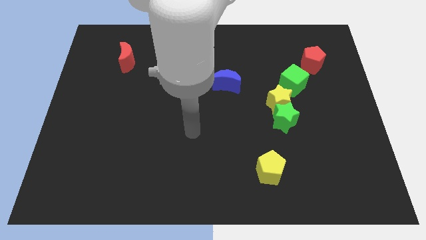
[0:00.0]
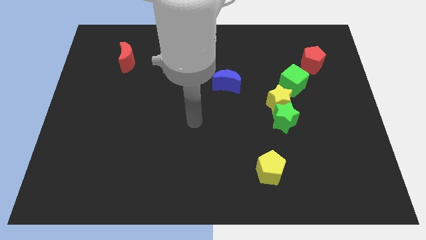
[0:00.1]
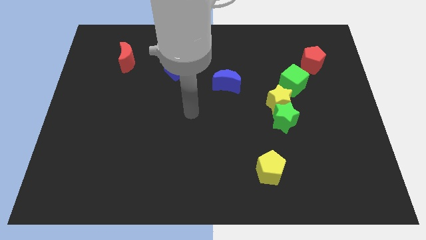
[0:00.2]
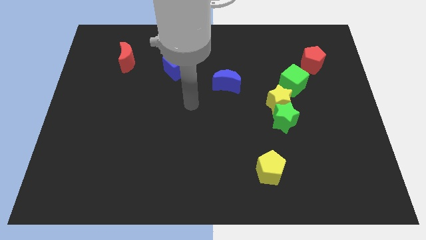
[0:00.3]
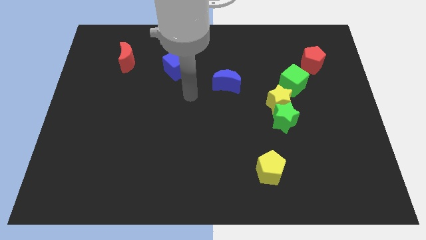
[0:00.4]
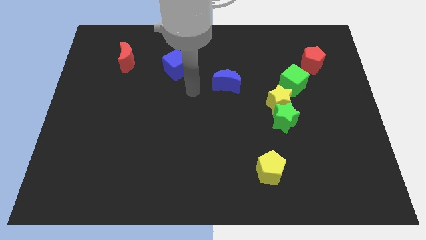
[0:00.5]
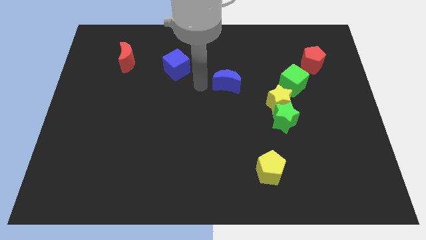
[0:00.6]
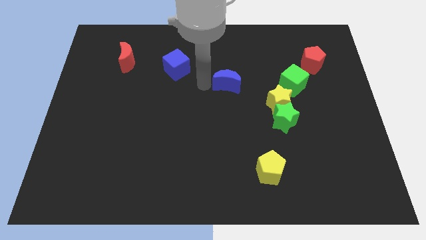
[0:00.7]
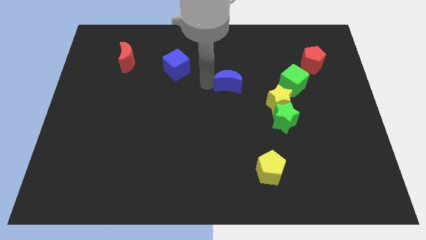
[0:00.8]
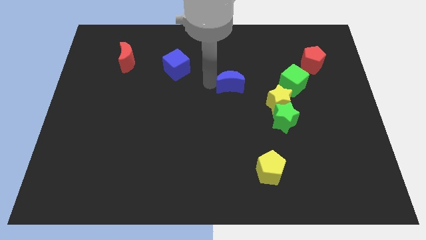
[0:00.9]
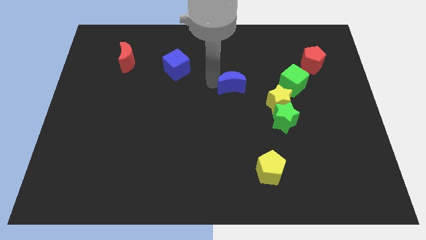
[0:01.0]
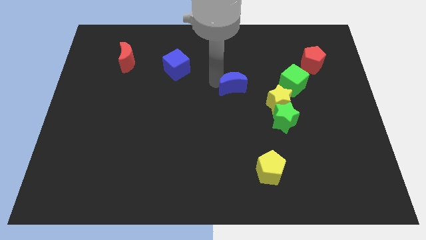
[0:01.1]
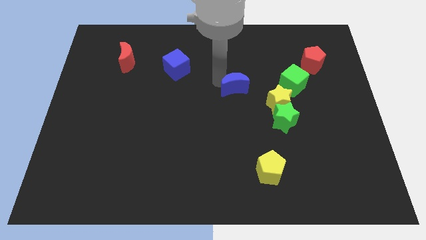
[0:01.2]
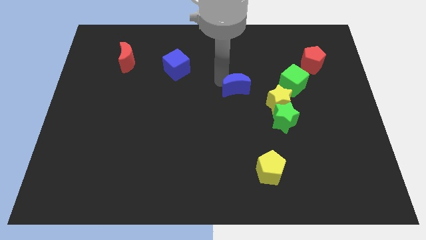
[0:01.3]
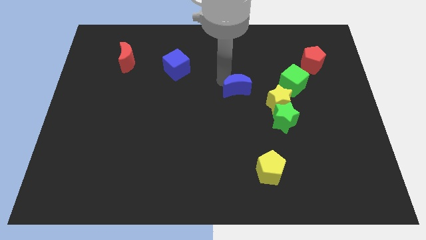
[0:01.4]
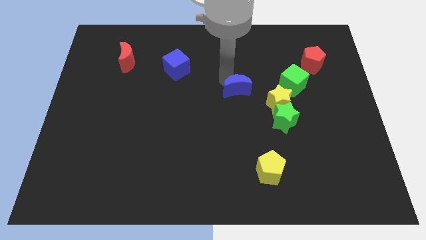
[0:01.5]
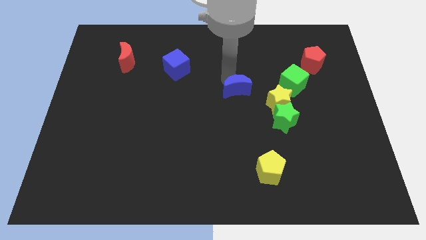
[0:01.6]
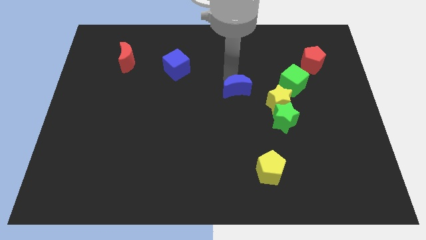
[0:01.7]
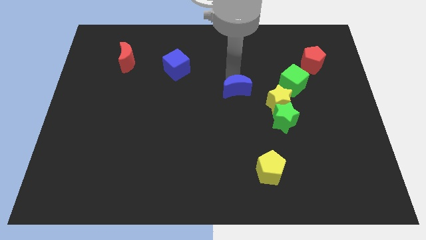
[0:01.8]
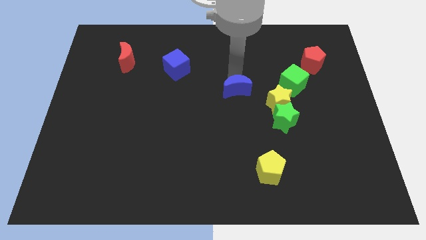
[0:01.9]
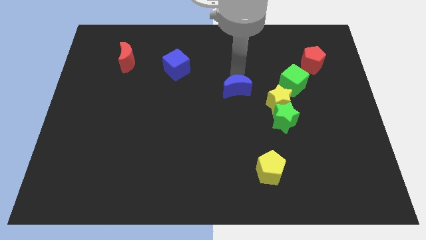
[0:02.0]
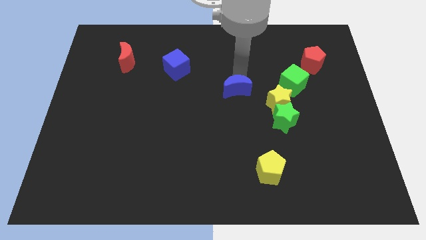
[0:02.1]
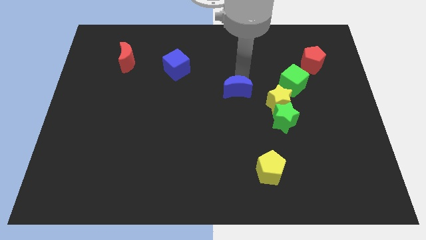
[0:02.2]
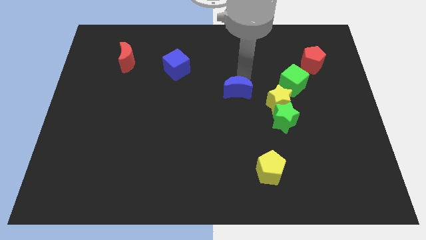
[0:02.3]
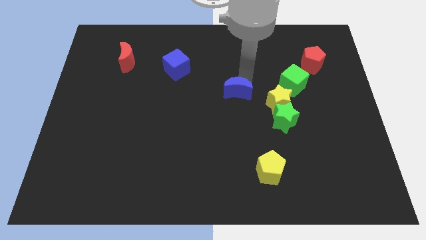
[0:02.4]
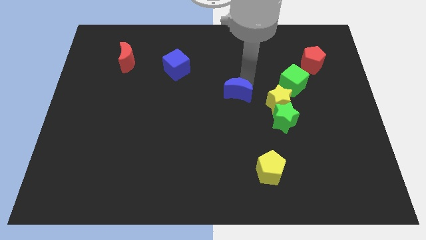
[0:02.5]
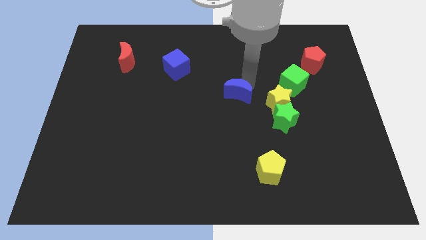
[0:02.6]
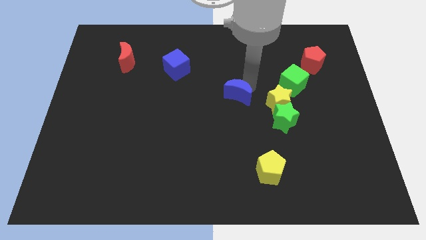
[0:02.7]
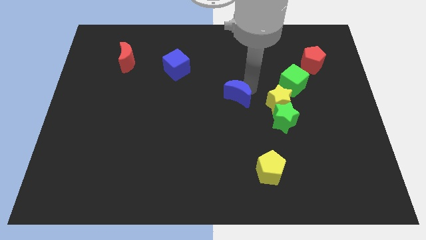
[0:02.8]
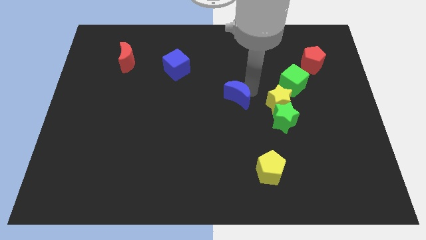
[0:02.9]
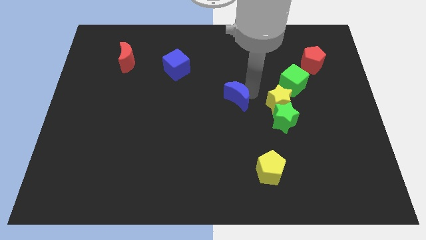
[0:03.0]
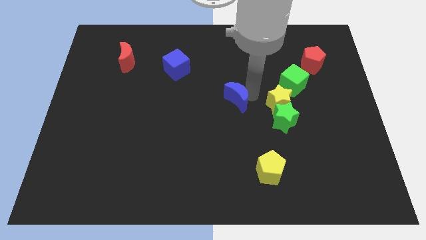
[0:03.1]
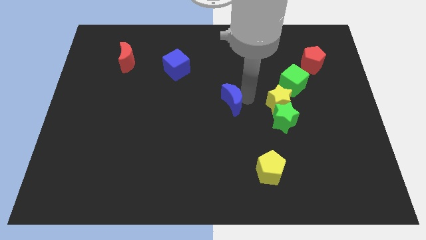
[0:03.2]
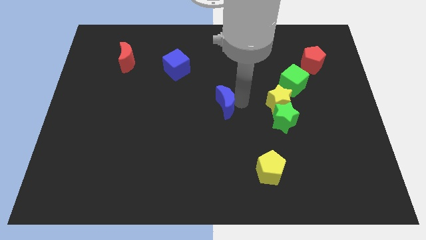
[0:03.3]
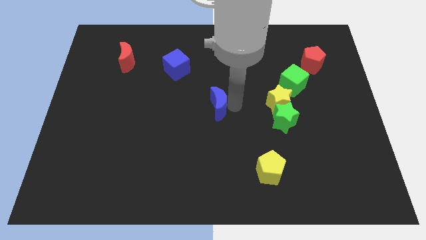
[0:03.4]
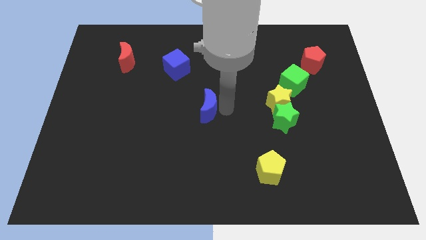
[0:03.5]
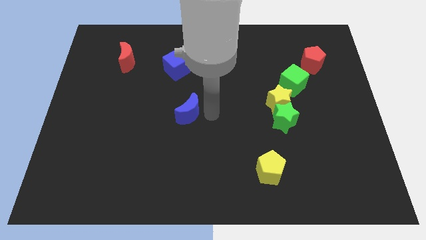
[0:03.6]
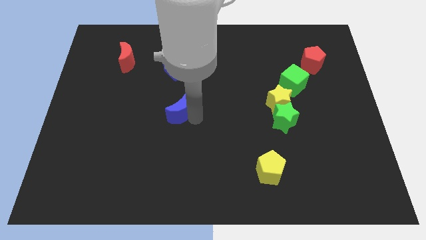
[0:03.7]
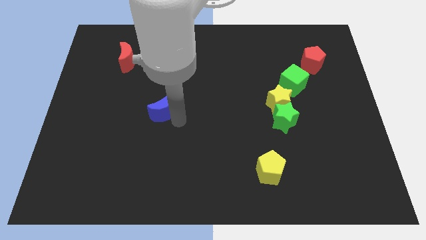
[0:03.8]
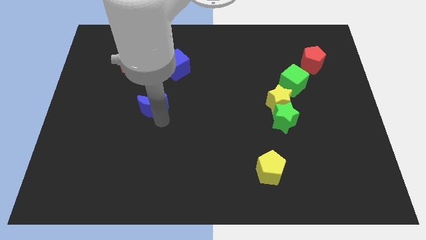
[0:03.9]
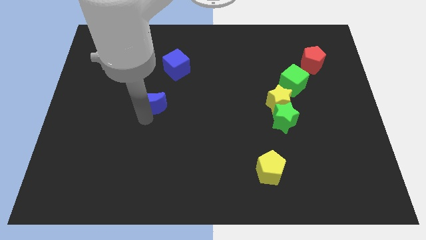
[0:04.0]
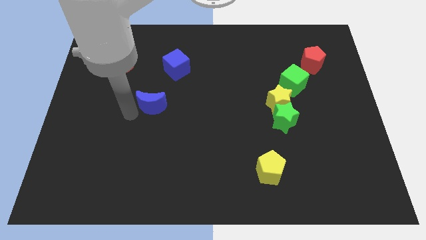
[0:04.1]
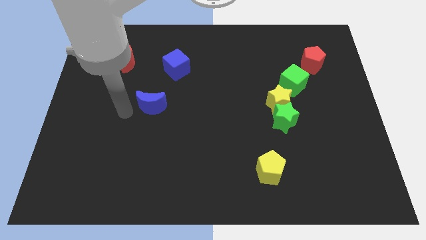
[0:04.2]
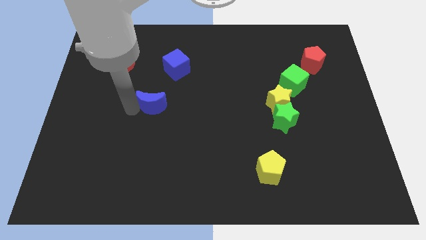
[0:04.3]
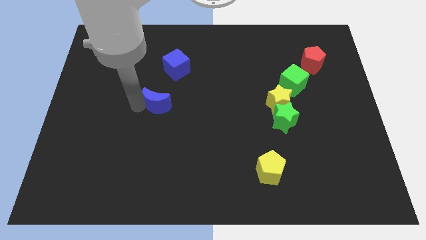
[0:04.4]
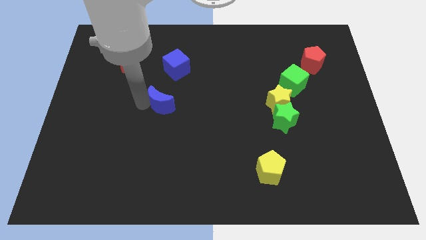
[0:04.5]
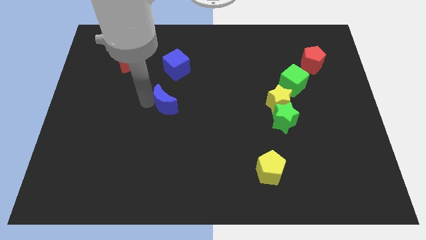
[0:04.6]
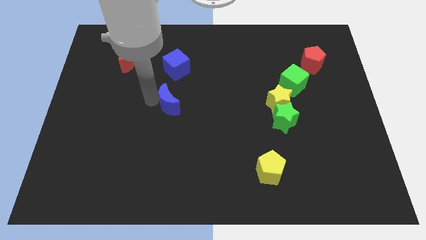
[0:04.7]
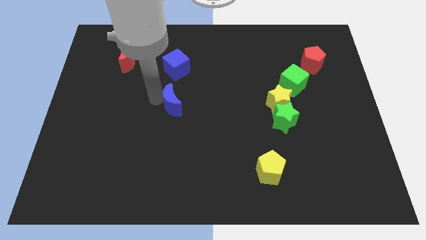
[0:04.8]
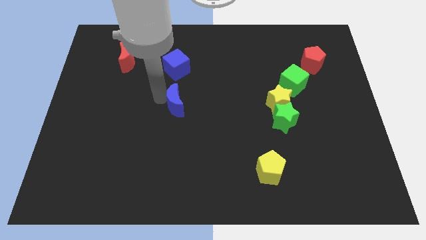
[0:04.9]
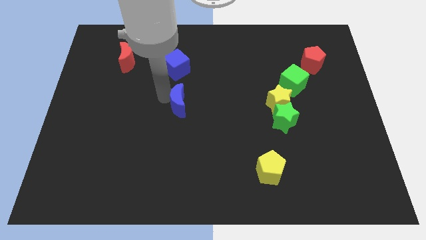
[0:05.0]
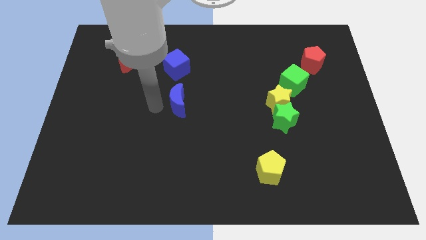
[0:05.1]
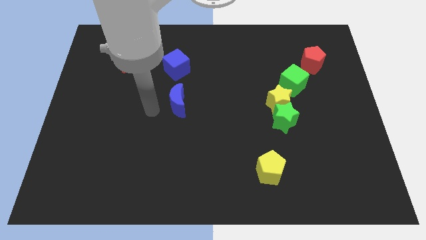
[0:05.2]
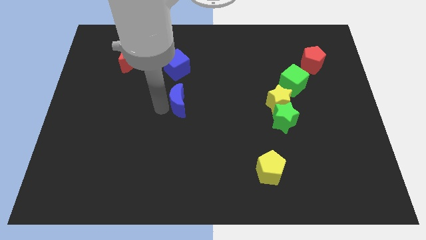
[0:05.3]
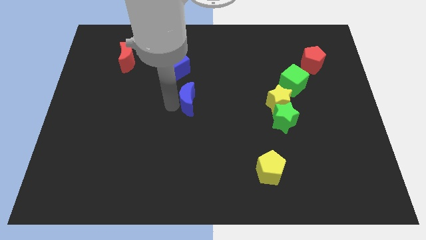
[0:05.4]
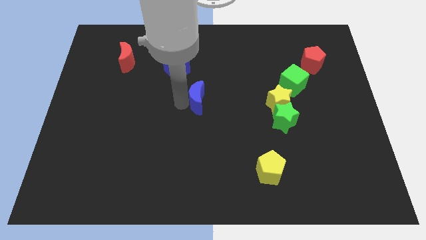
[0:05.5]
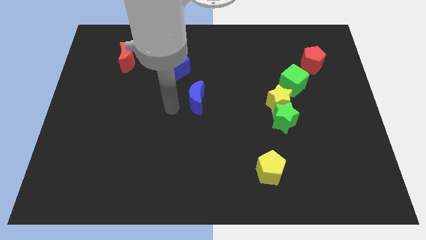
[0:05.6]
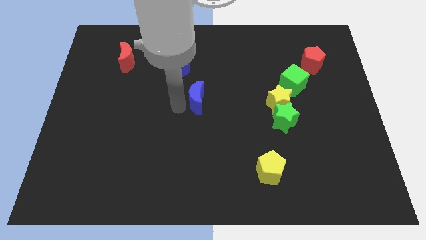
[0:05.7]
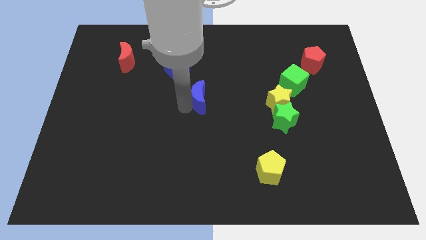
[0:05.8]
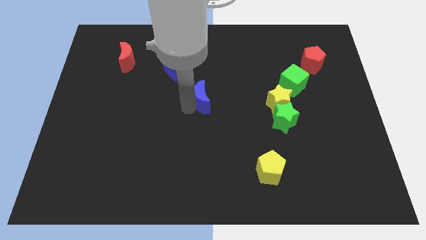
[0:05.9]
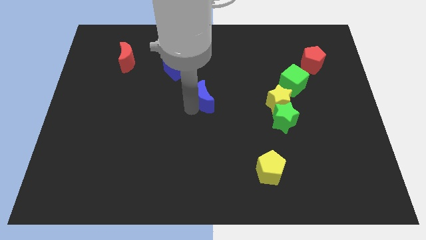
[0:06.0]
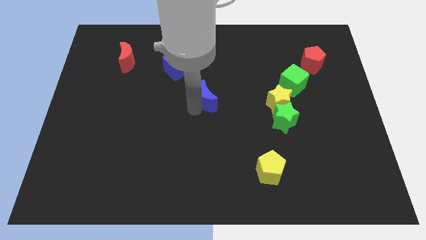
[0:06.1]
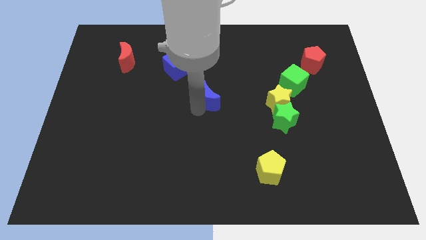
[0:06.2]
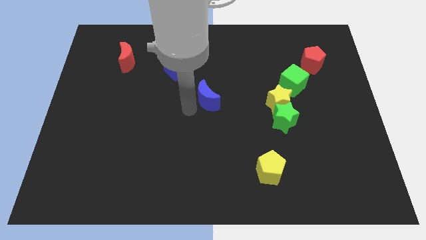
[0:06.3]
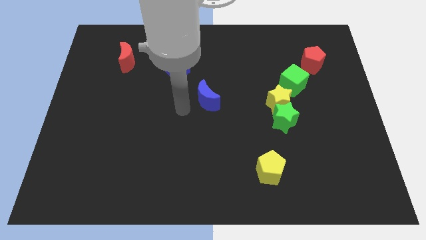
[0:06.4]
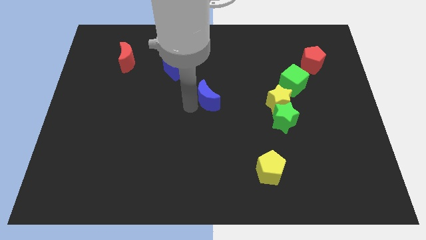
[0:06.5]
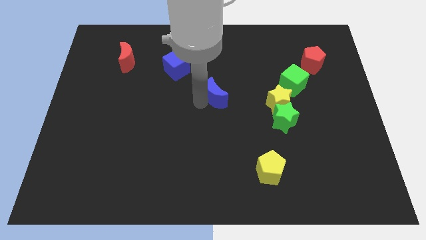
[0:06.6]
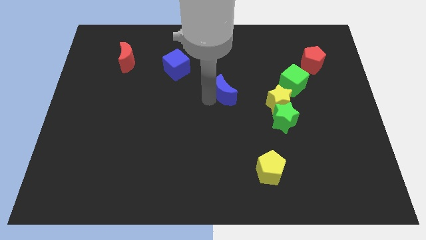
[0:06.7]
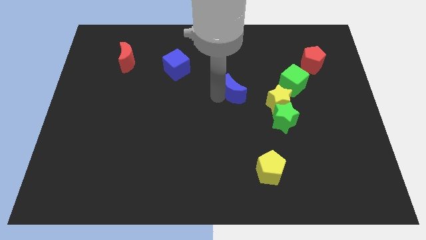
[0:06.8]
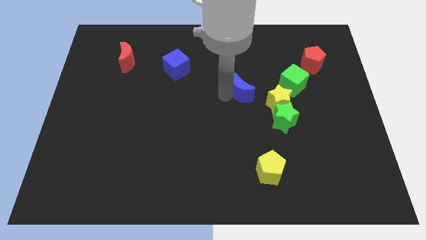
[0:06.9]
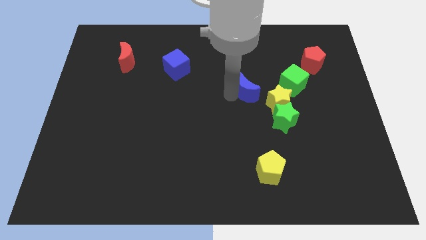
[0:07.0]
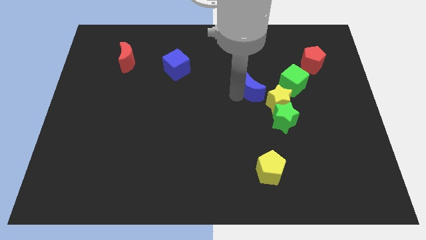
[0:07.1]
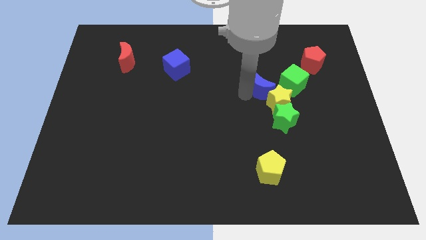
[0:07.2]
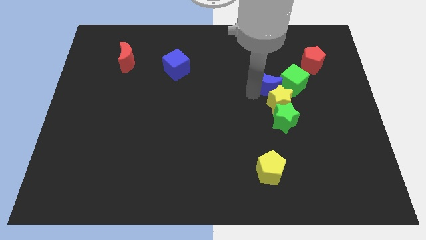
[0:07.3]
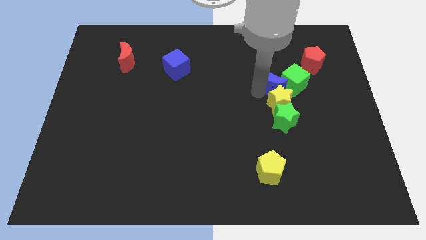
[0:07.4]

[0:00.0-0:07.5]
put the blue moon to the top right of the yellow star

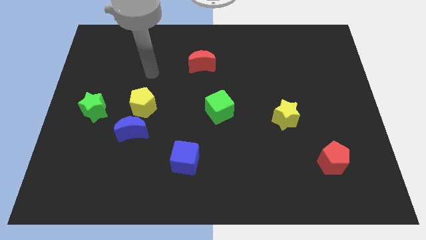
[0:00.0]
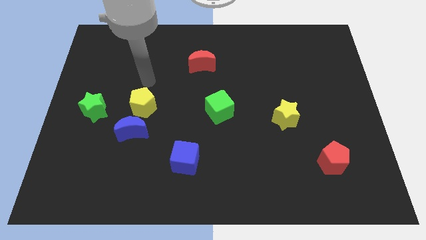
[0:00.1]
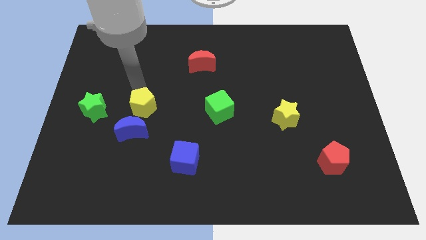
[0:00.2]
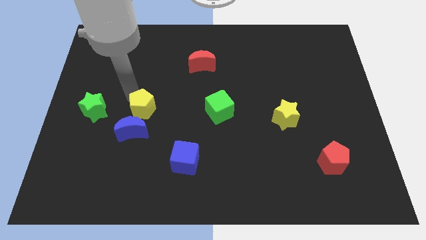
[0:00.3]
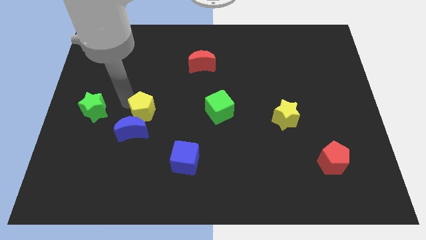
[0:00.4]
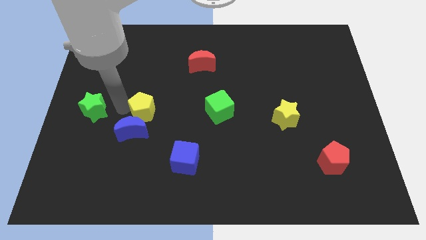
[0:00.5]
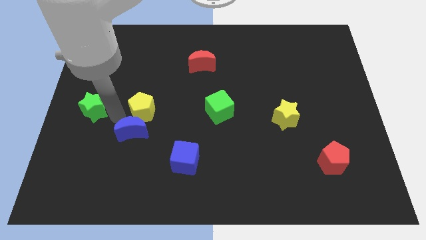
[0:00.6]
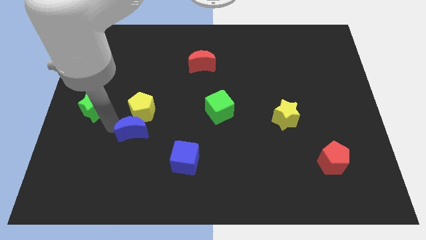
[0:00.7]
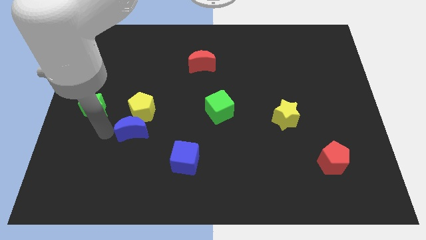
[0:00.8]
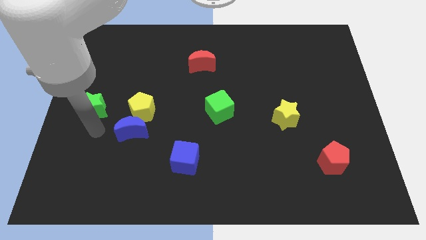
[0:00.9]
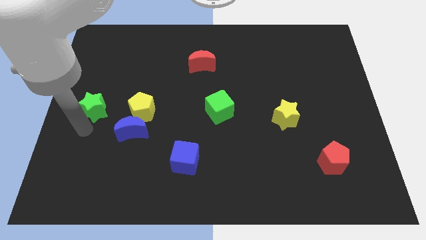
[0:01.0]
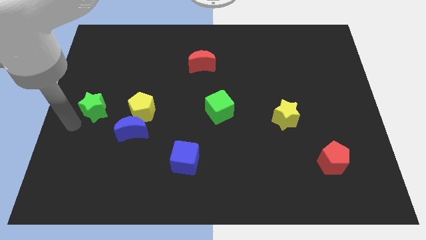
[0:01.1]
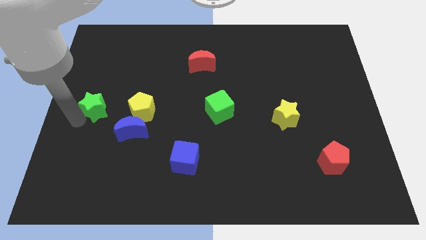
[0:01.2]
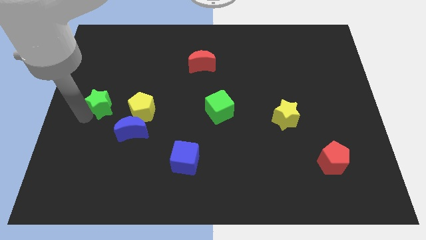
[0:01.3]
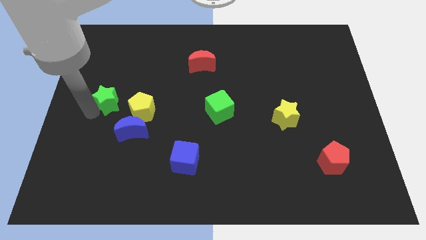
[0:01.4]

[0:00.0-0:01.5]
move the green star to the top left of the yellow pentagon
